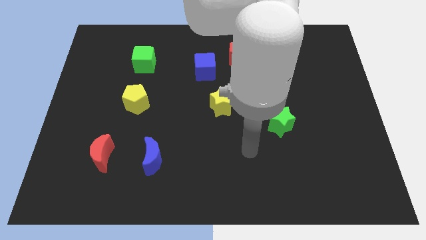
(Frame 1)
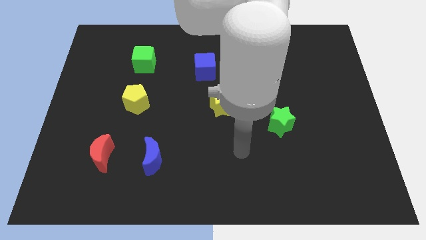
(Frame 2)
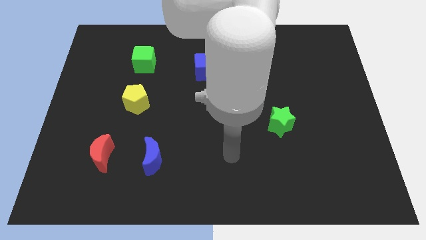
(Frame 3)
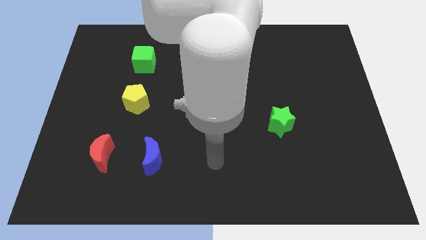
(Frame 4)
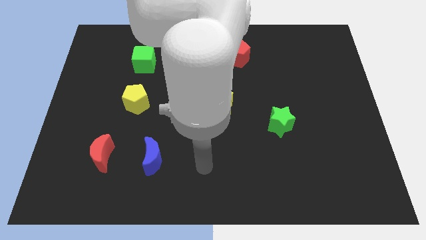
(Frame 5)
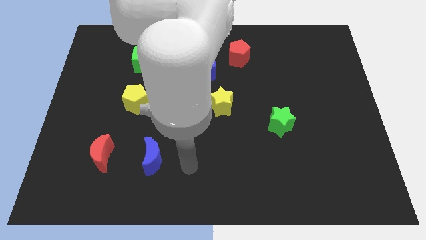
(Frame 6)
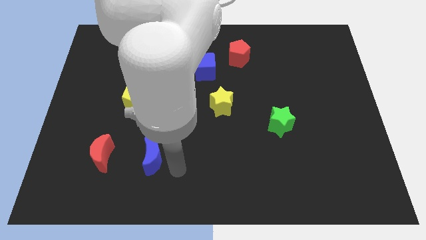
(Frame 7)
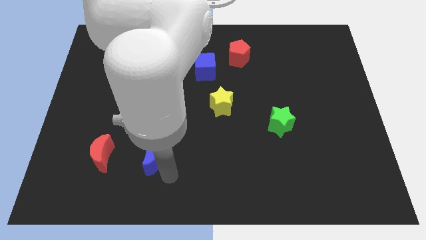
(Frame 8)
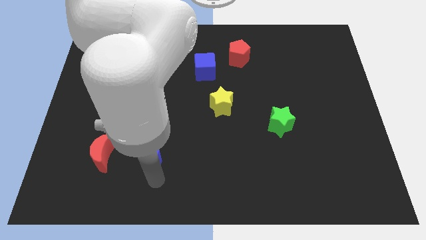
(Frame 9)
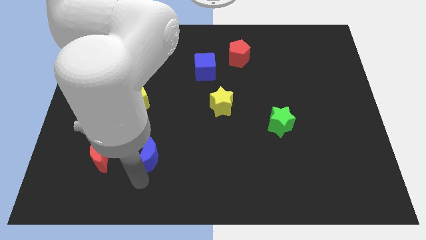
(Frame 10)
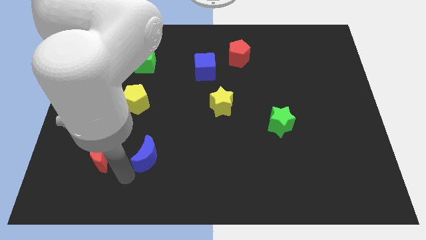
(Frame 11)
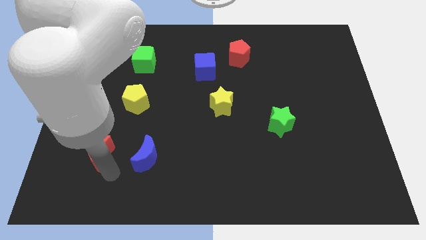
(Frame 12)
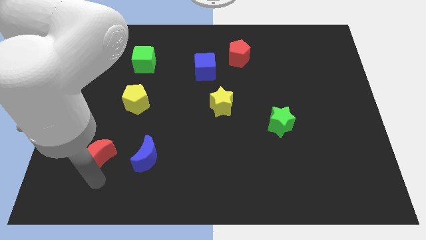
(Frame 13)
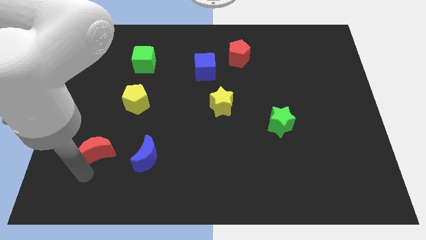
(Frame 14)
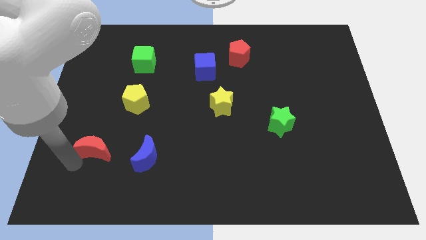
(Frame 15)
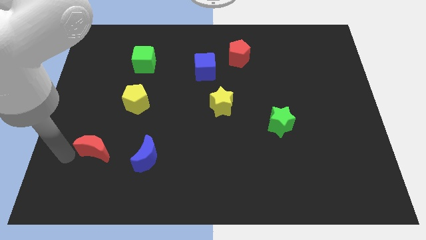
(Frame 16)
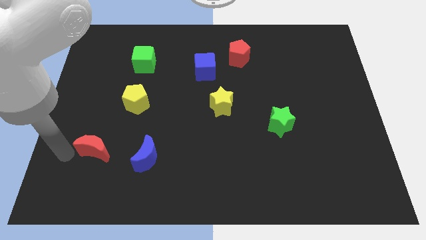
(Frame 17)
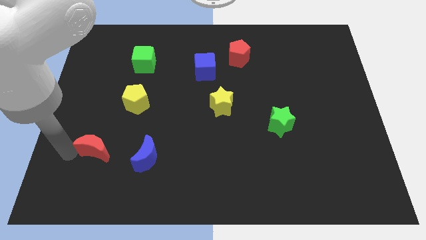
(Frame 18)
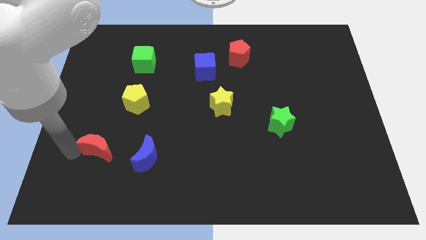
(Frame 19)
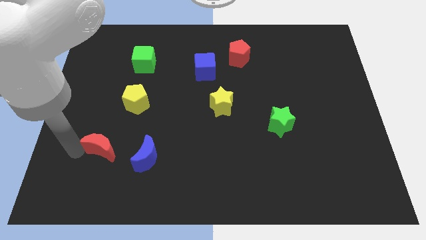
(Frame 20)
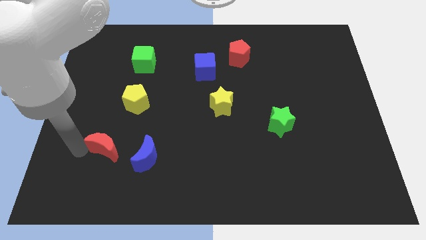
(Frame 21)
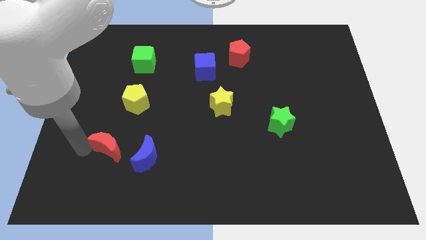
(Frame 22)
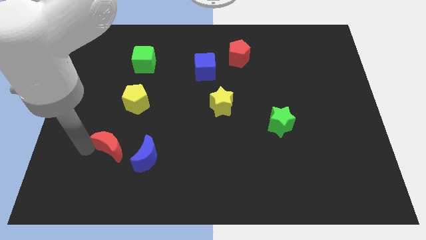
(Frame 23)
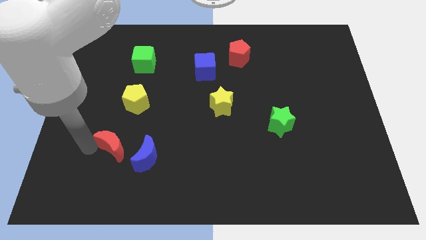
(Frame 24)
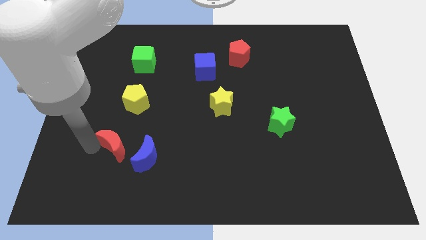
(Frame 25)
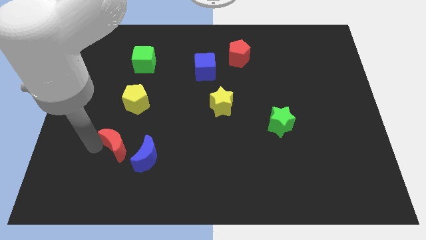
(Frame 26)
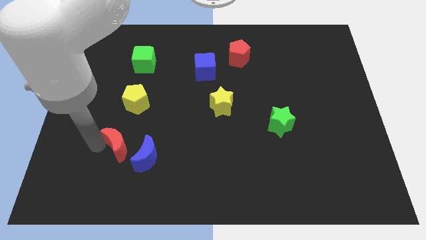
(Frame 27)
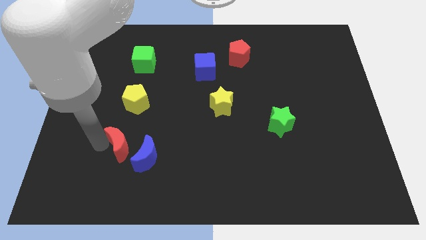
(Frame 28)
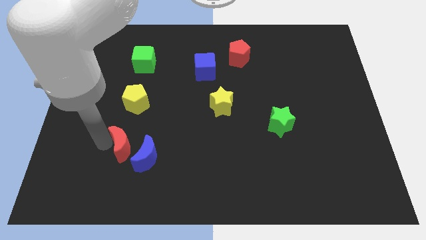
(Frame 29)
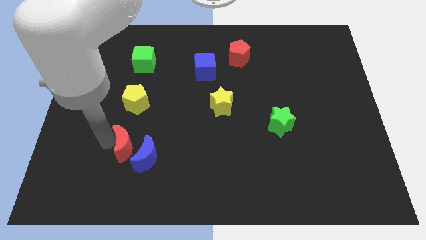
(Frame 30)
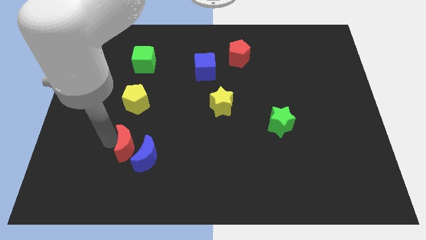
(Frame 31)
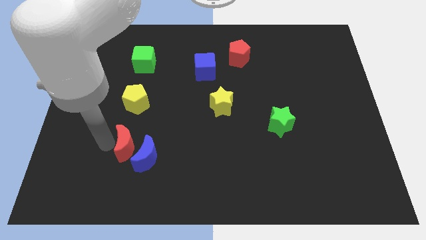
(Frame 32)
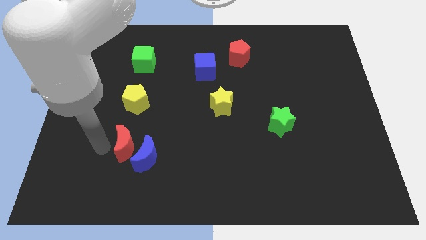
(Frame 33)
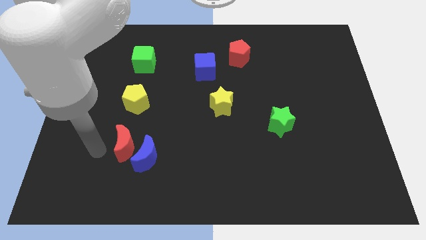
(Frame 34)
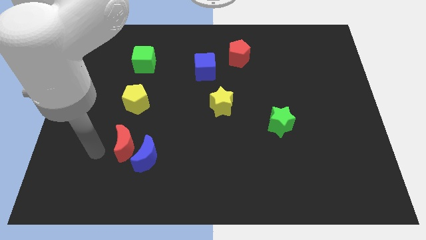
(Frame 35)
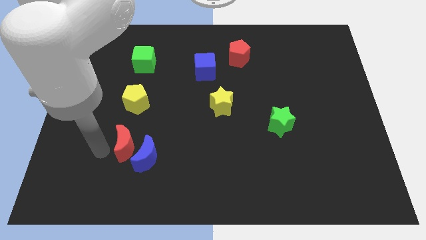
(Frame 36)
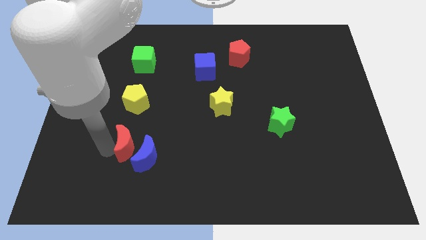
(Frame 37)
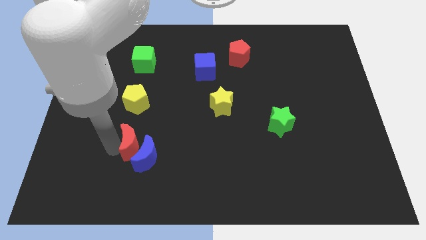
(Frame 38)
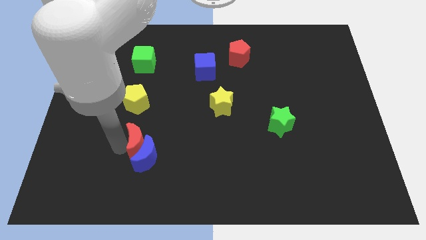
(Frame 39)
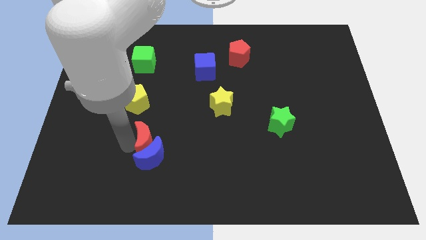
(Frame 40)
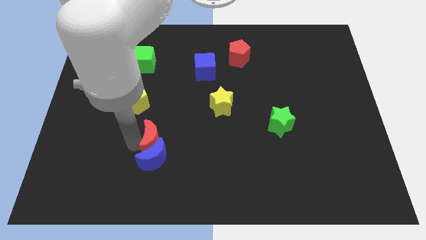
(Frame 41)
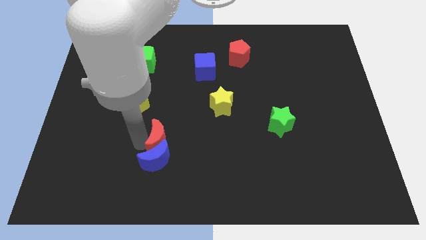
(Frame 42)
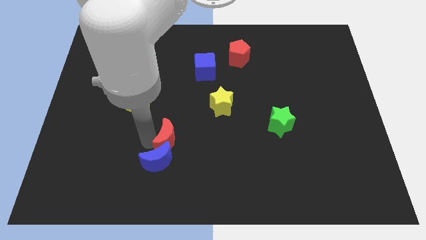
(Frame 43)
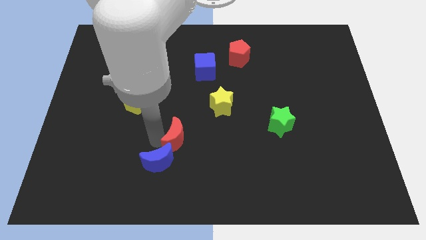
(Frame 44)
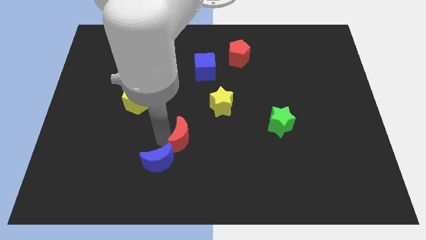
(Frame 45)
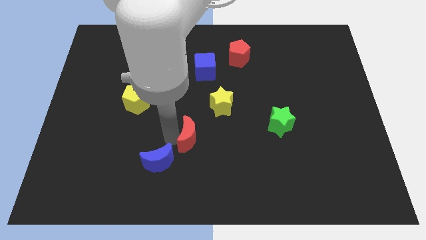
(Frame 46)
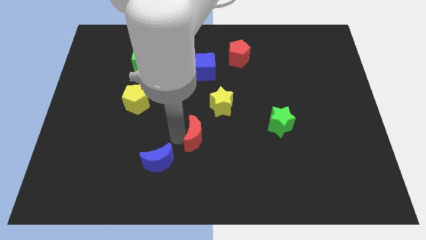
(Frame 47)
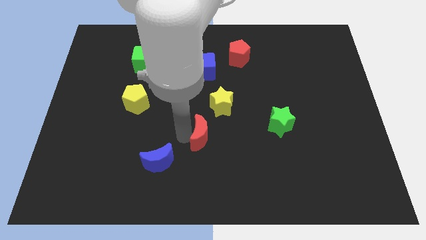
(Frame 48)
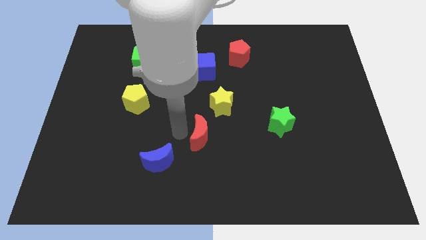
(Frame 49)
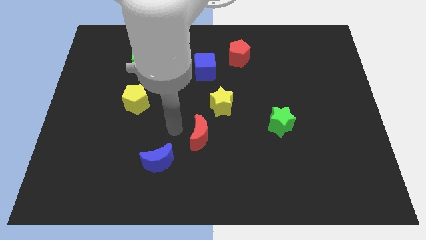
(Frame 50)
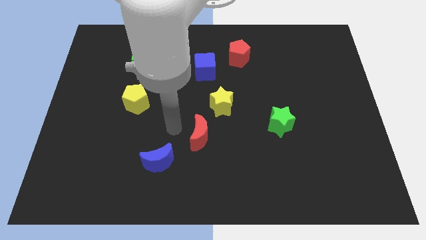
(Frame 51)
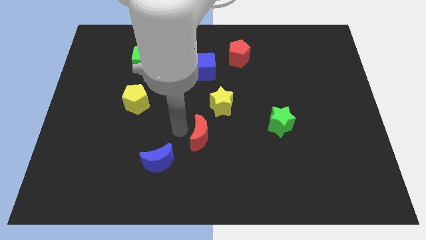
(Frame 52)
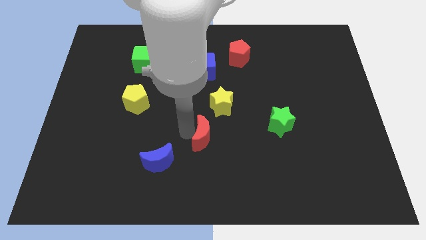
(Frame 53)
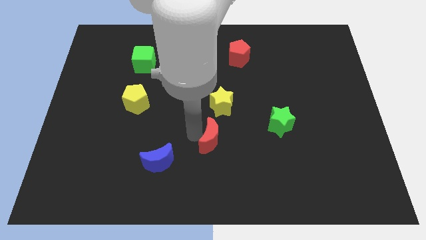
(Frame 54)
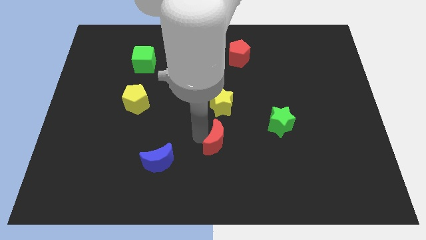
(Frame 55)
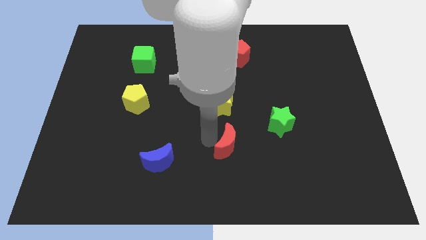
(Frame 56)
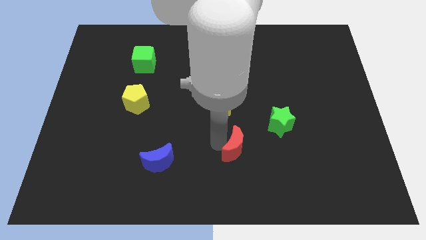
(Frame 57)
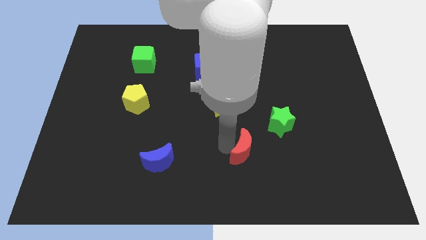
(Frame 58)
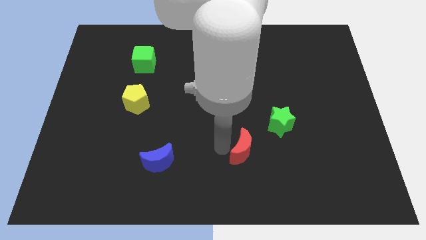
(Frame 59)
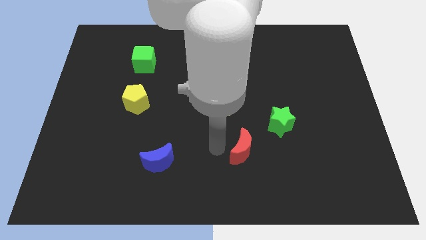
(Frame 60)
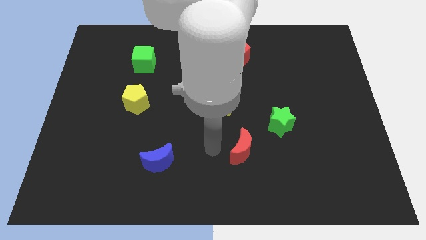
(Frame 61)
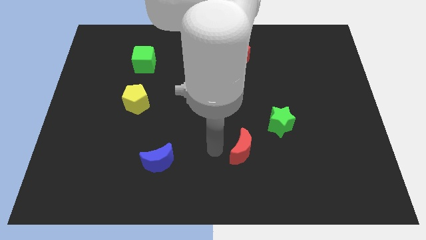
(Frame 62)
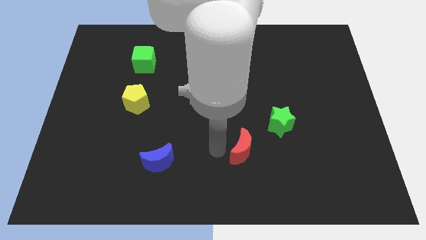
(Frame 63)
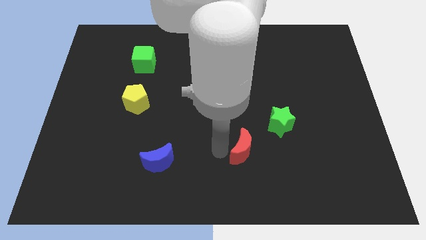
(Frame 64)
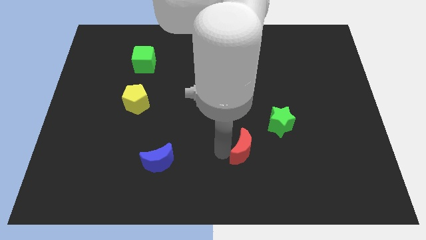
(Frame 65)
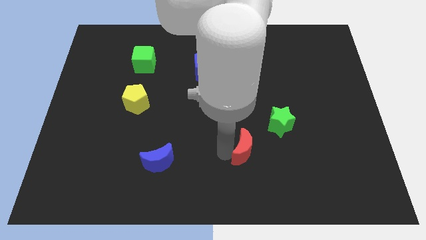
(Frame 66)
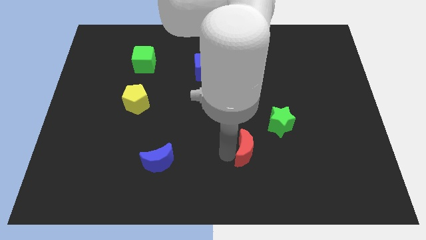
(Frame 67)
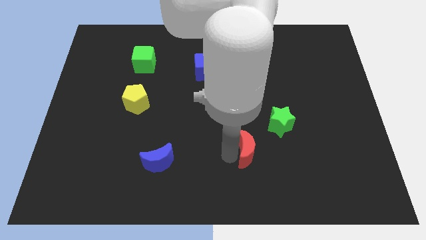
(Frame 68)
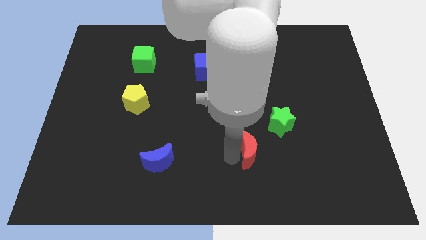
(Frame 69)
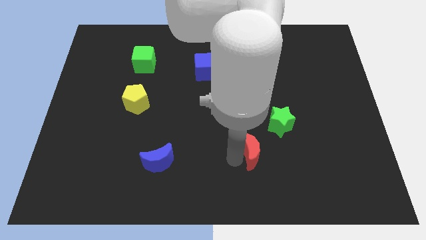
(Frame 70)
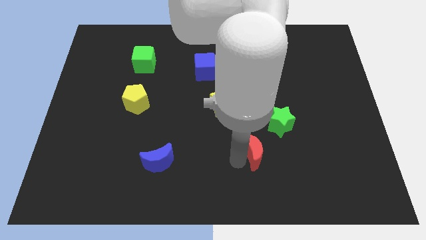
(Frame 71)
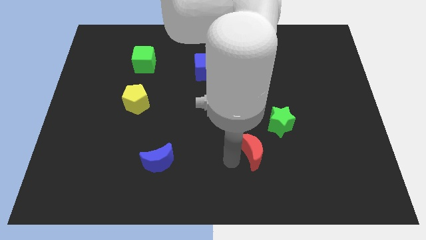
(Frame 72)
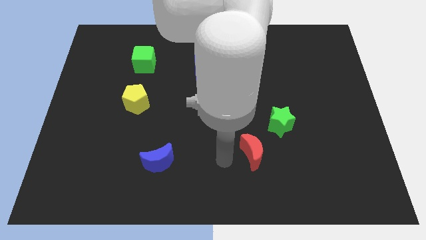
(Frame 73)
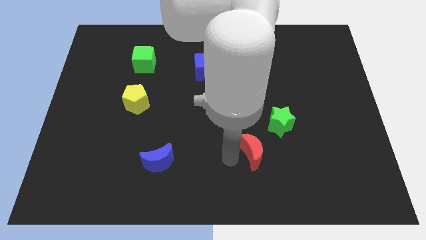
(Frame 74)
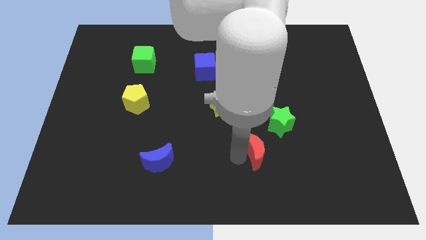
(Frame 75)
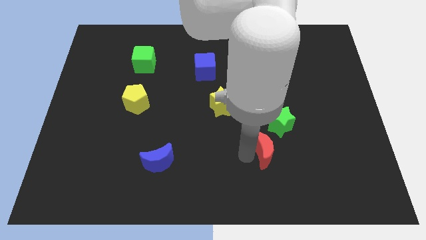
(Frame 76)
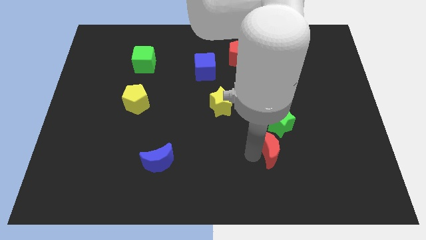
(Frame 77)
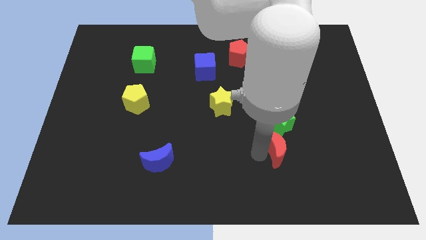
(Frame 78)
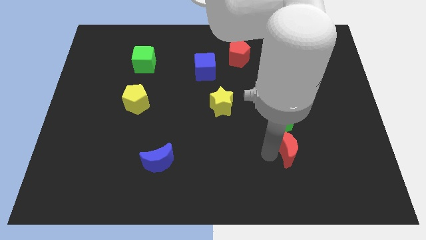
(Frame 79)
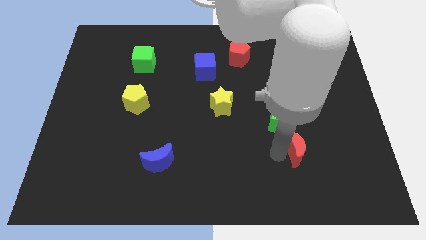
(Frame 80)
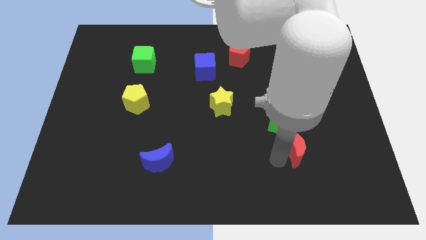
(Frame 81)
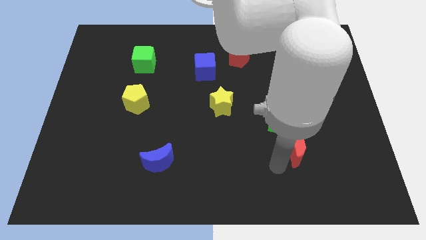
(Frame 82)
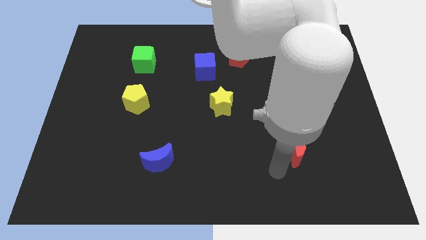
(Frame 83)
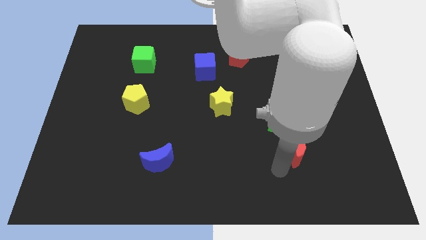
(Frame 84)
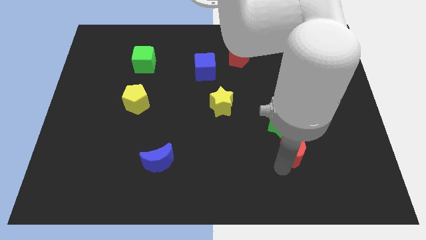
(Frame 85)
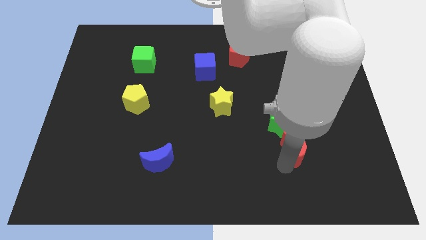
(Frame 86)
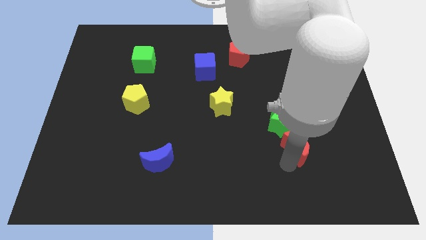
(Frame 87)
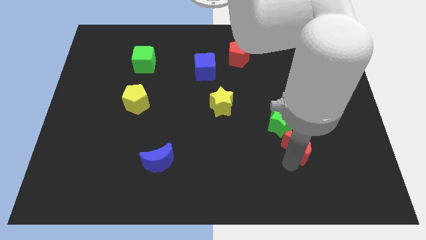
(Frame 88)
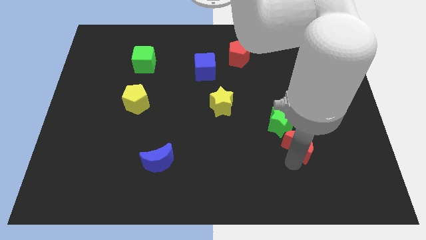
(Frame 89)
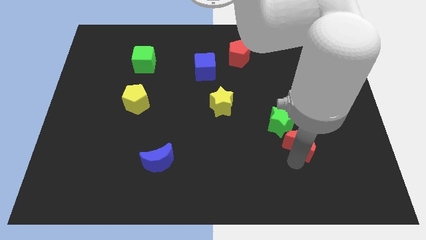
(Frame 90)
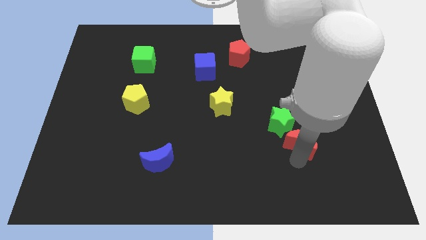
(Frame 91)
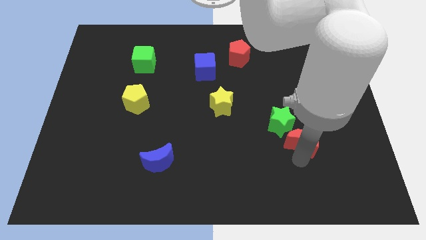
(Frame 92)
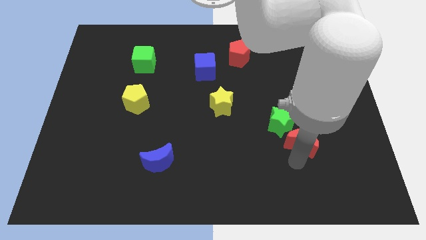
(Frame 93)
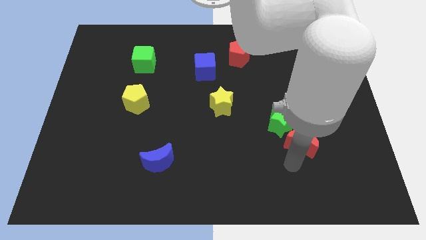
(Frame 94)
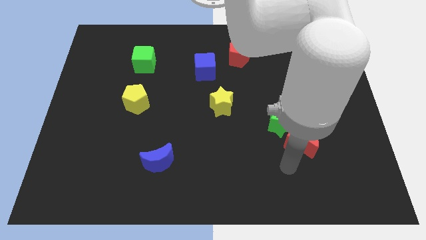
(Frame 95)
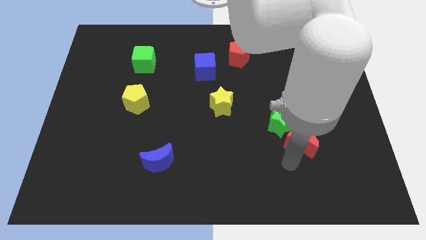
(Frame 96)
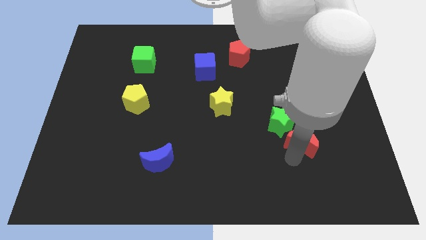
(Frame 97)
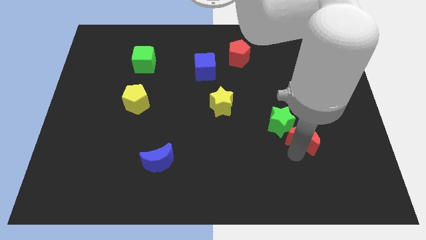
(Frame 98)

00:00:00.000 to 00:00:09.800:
slide the red moon to the right side of the green star
